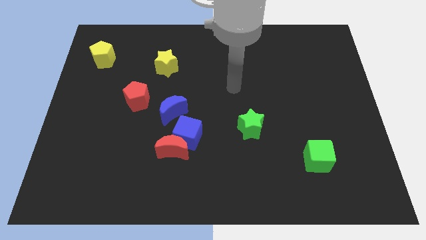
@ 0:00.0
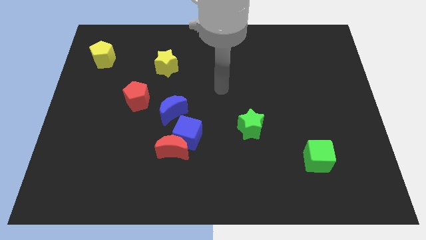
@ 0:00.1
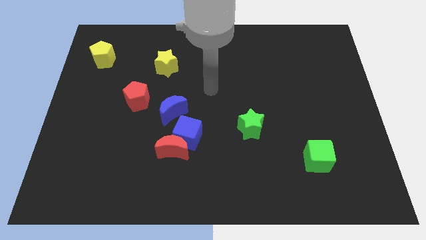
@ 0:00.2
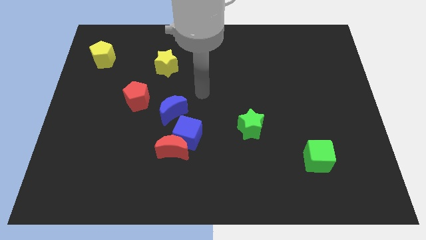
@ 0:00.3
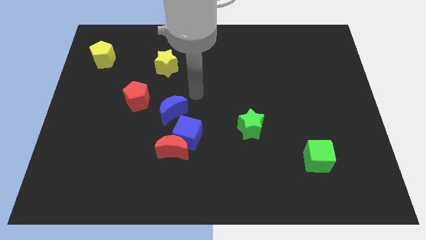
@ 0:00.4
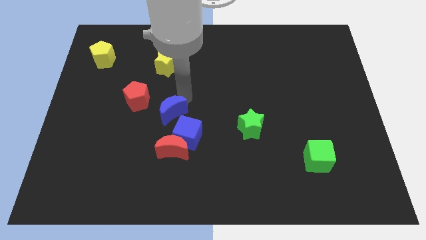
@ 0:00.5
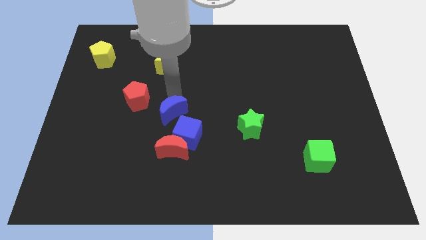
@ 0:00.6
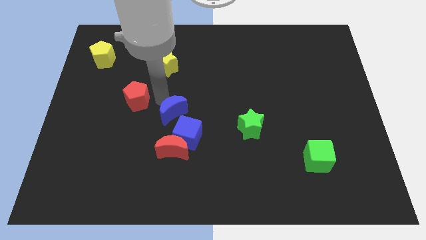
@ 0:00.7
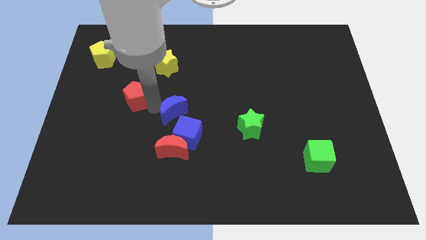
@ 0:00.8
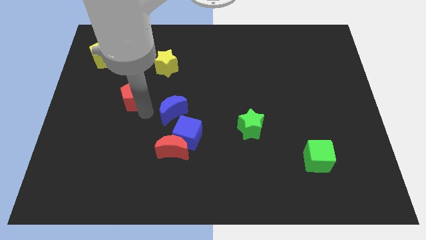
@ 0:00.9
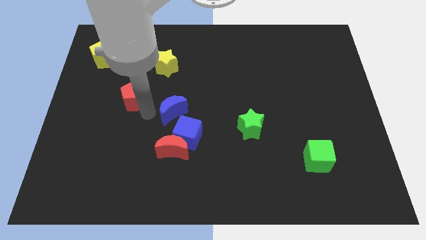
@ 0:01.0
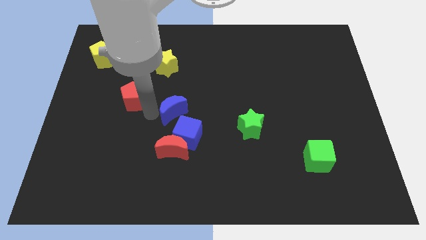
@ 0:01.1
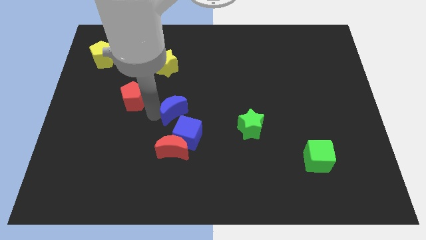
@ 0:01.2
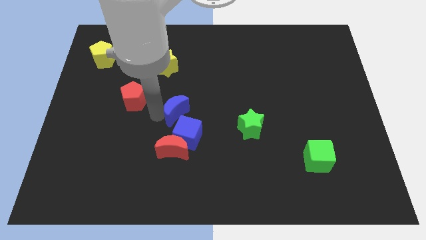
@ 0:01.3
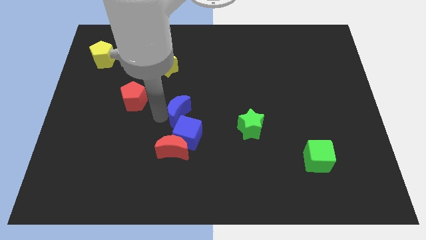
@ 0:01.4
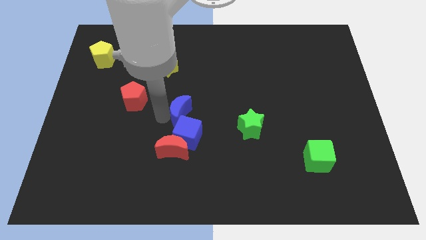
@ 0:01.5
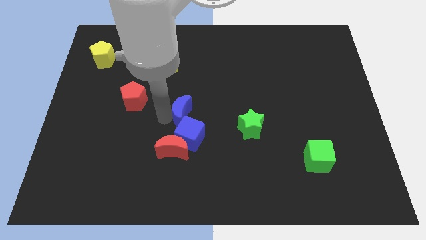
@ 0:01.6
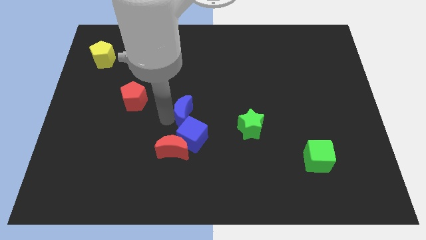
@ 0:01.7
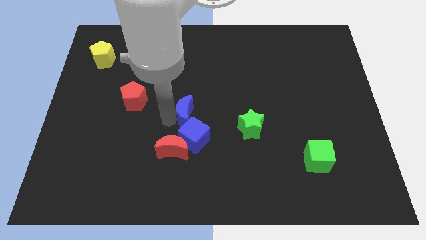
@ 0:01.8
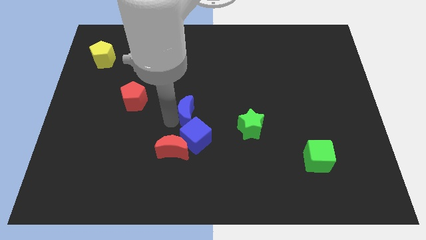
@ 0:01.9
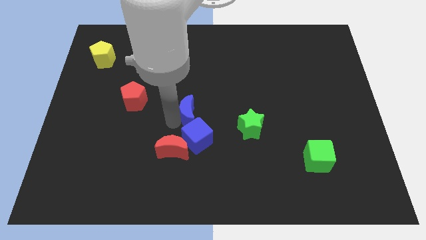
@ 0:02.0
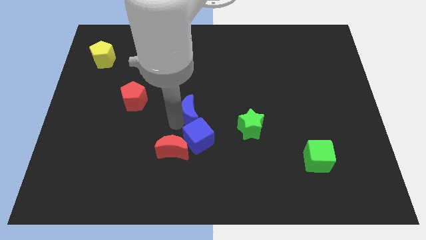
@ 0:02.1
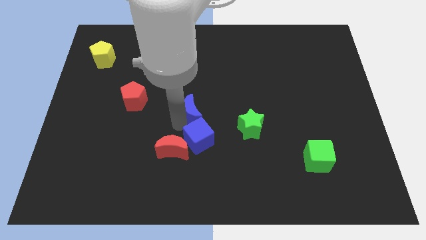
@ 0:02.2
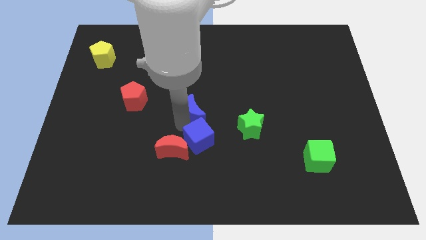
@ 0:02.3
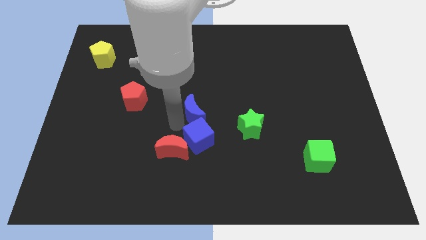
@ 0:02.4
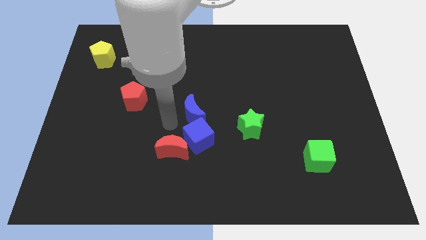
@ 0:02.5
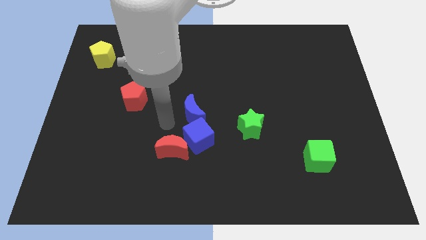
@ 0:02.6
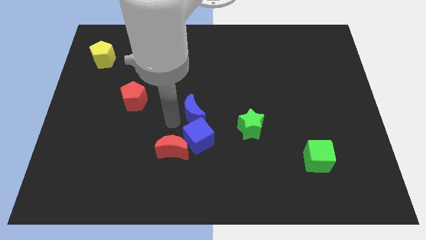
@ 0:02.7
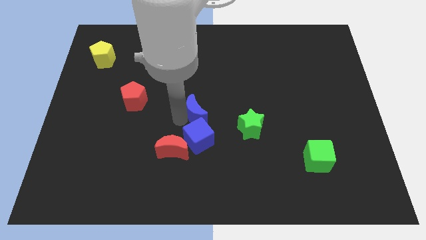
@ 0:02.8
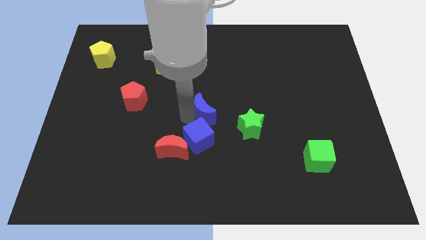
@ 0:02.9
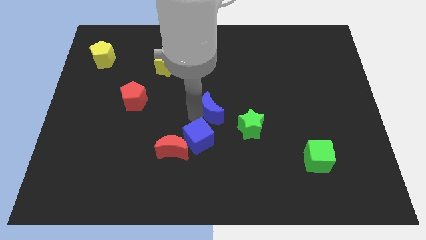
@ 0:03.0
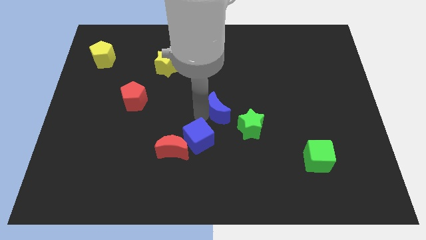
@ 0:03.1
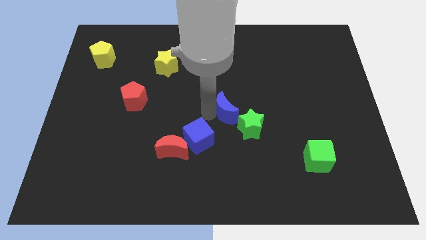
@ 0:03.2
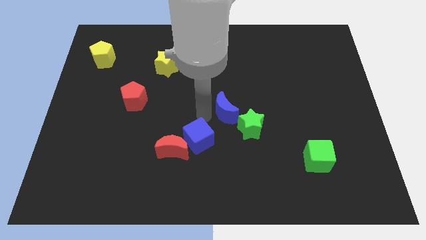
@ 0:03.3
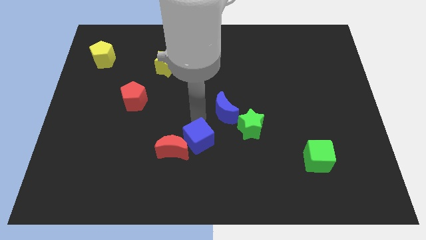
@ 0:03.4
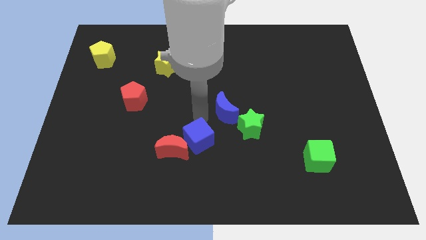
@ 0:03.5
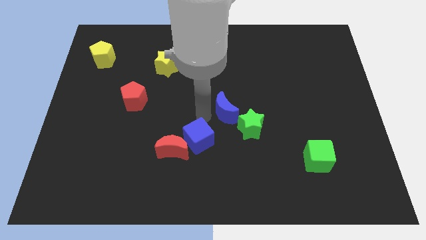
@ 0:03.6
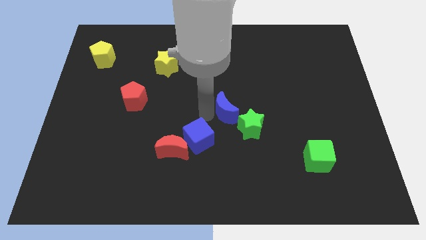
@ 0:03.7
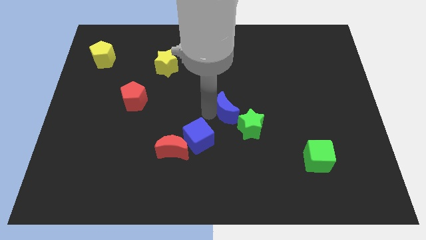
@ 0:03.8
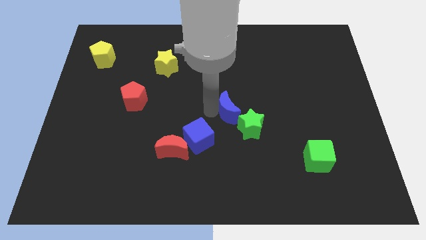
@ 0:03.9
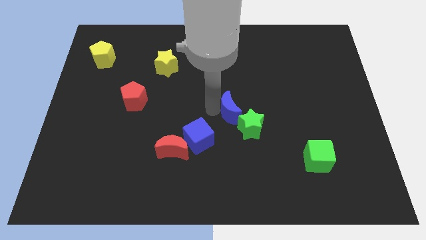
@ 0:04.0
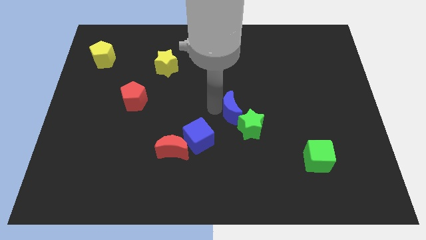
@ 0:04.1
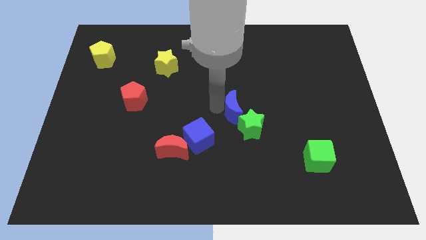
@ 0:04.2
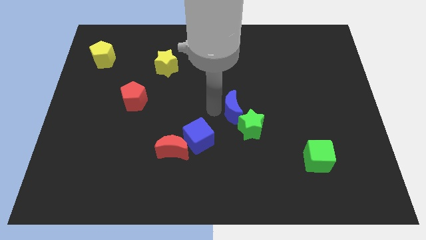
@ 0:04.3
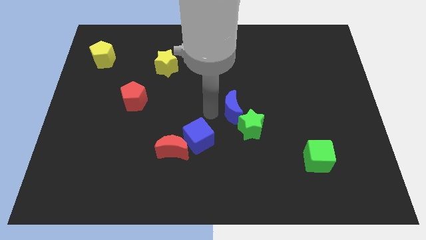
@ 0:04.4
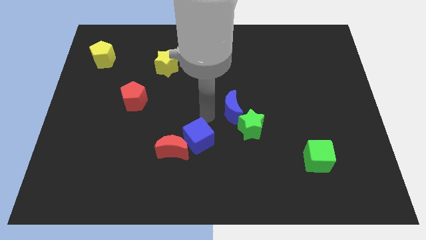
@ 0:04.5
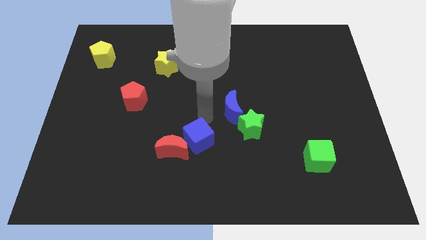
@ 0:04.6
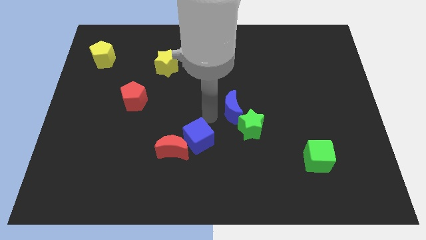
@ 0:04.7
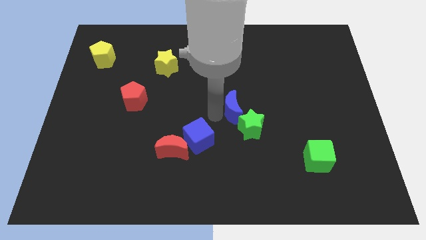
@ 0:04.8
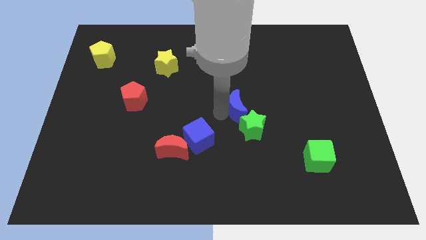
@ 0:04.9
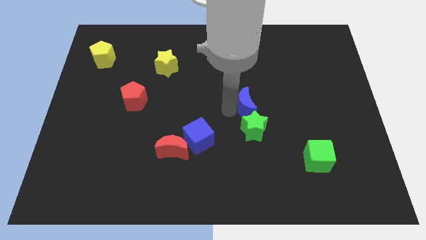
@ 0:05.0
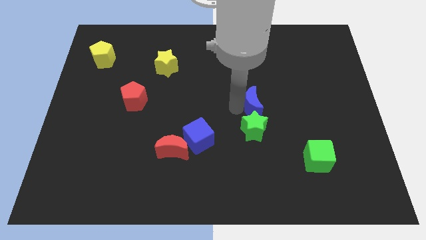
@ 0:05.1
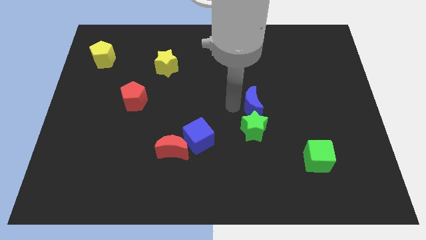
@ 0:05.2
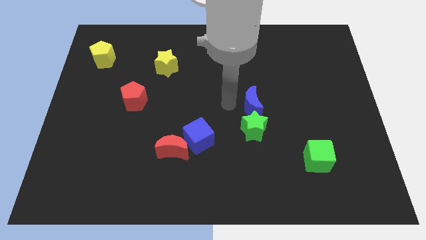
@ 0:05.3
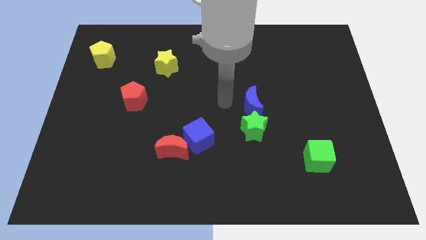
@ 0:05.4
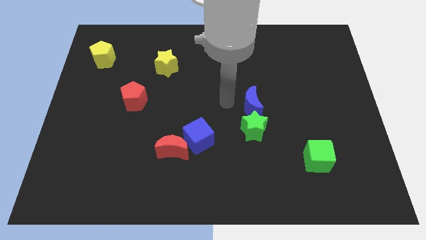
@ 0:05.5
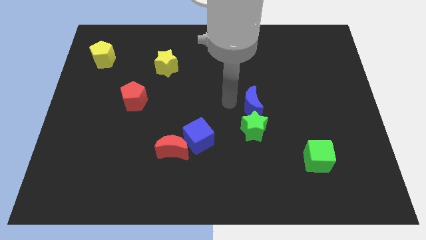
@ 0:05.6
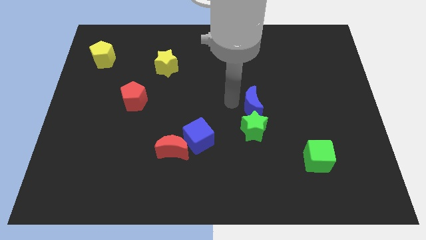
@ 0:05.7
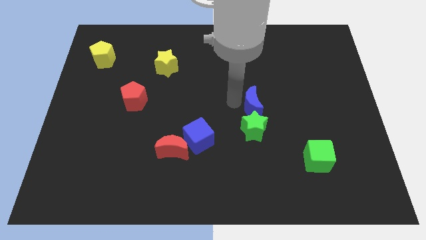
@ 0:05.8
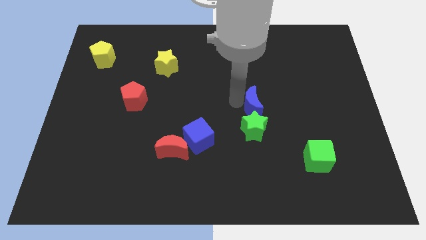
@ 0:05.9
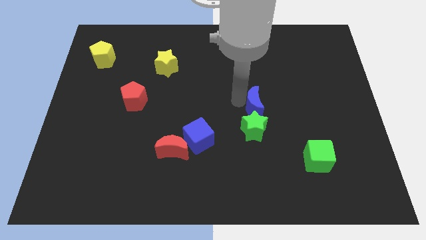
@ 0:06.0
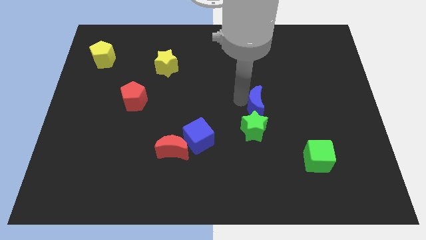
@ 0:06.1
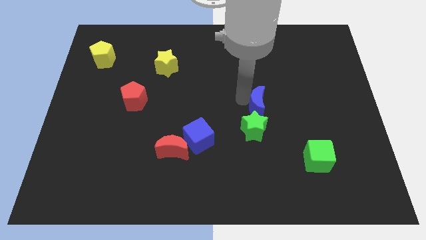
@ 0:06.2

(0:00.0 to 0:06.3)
move the blue moon to the right

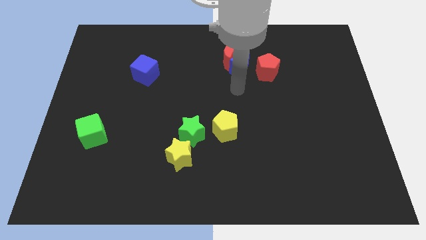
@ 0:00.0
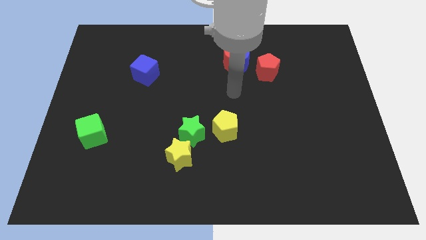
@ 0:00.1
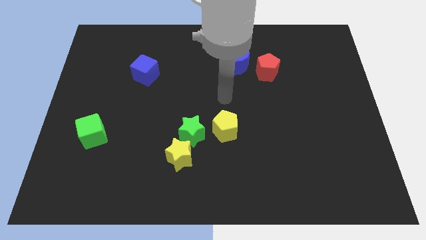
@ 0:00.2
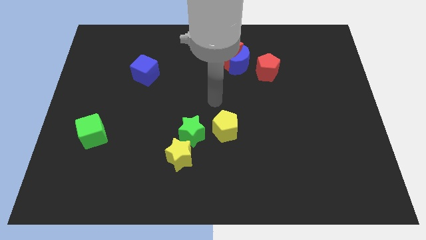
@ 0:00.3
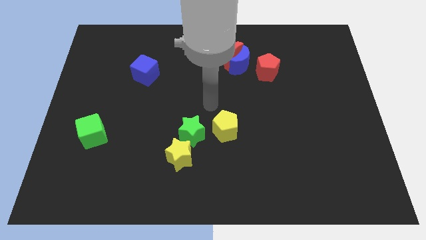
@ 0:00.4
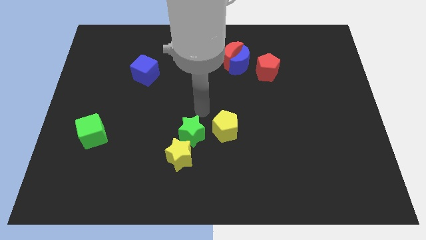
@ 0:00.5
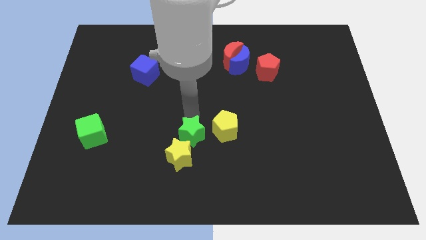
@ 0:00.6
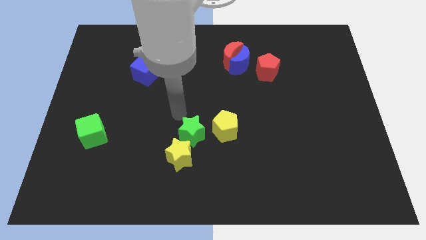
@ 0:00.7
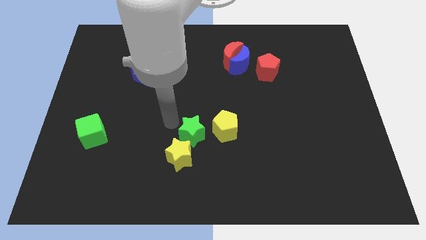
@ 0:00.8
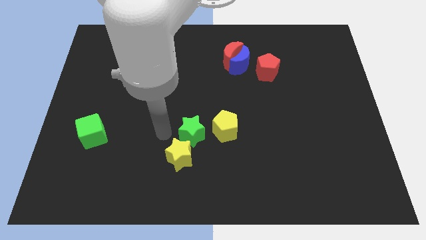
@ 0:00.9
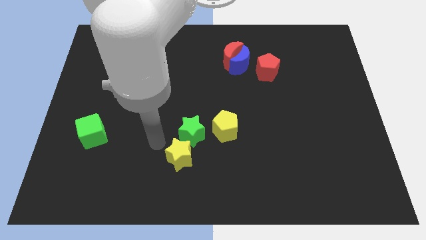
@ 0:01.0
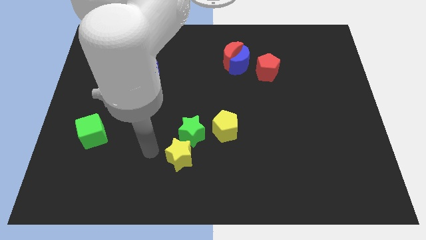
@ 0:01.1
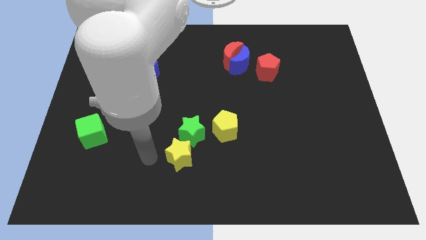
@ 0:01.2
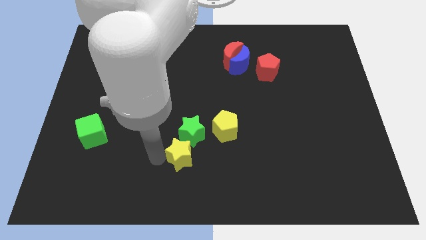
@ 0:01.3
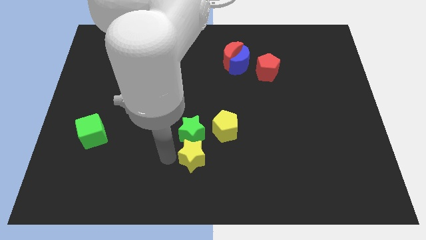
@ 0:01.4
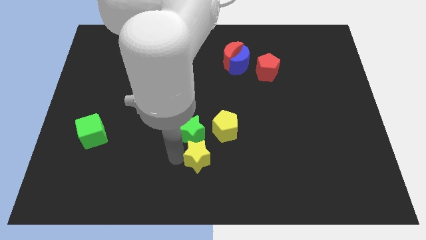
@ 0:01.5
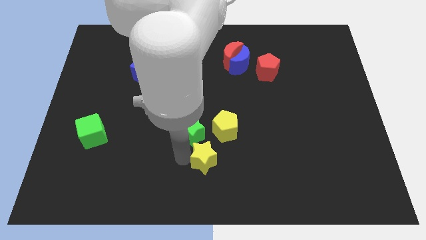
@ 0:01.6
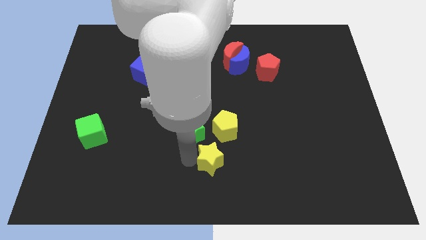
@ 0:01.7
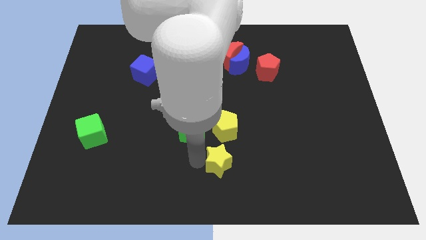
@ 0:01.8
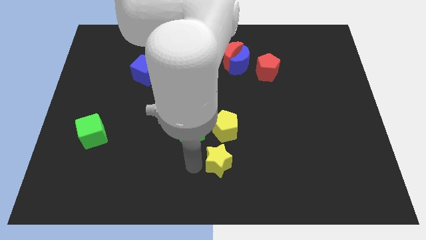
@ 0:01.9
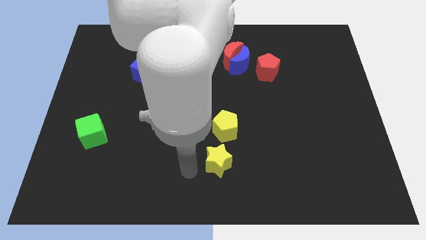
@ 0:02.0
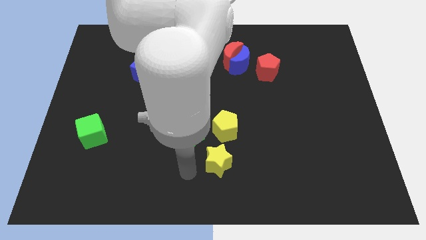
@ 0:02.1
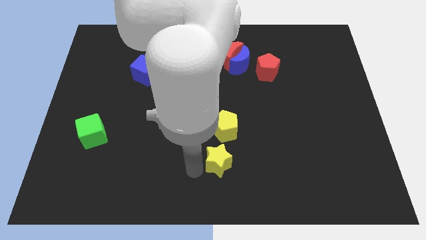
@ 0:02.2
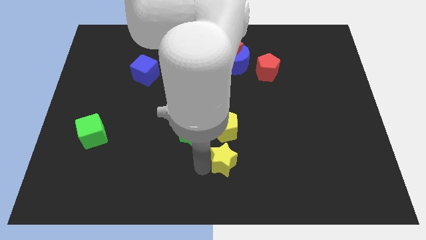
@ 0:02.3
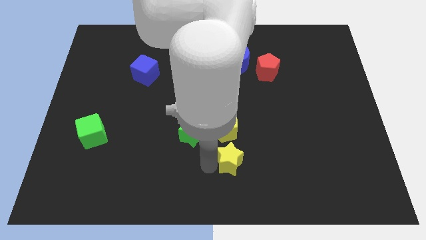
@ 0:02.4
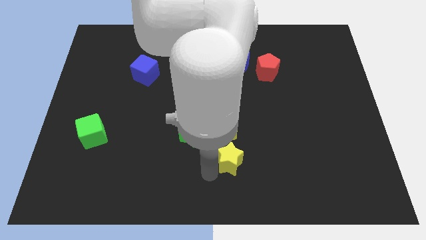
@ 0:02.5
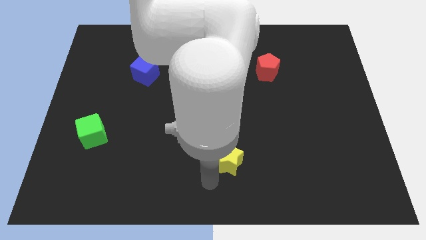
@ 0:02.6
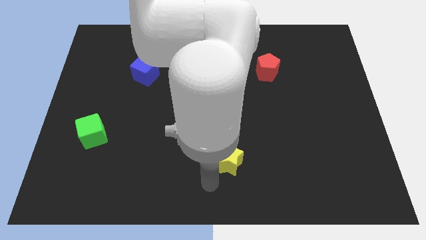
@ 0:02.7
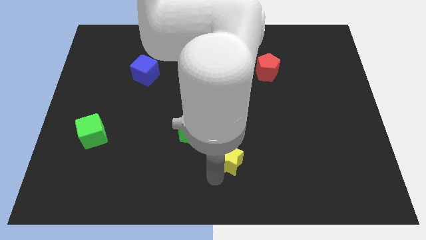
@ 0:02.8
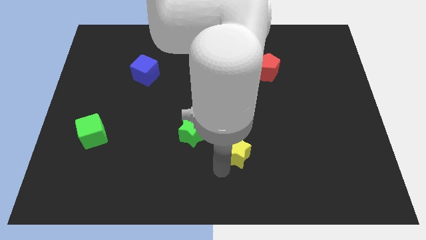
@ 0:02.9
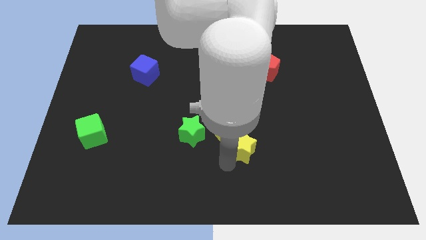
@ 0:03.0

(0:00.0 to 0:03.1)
slightly slide the yellow star upwards and then right
